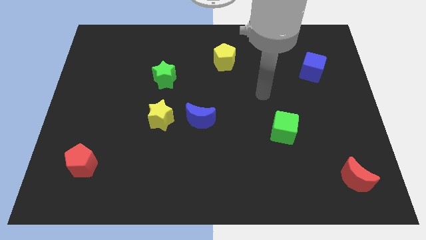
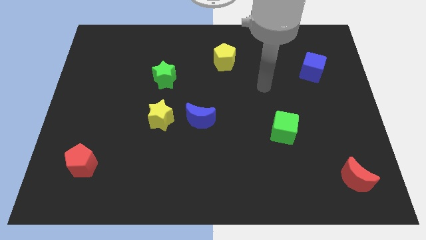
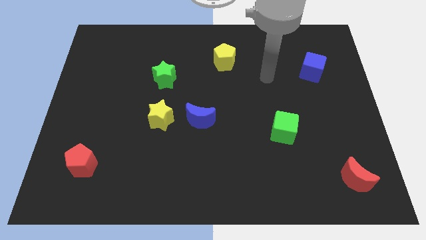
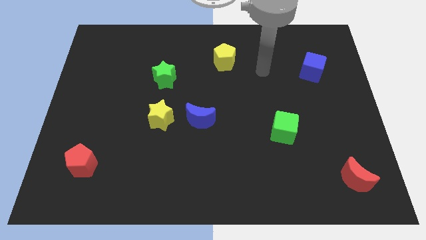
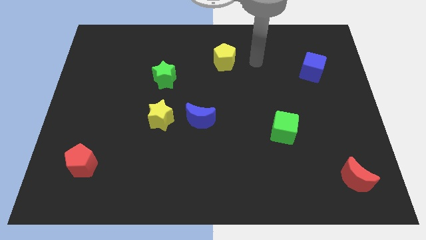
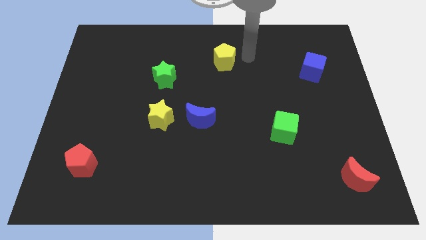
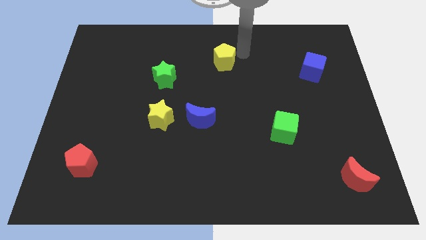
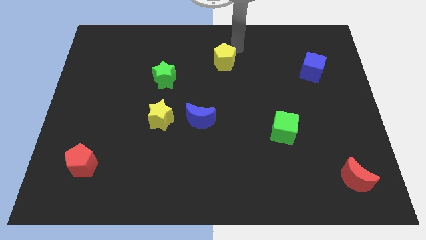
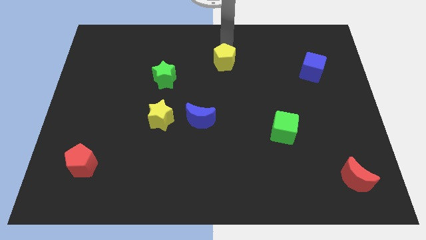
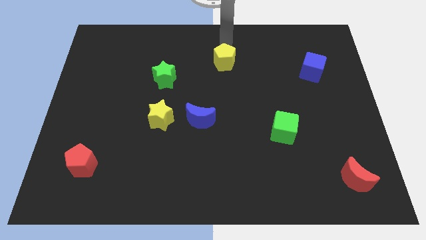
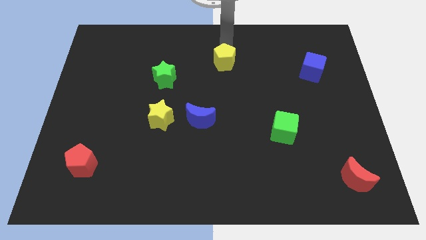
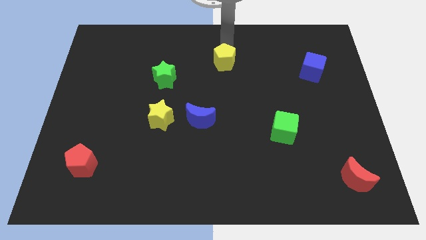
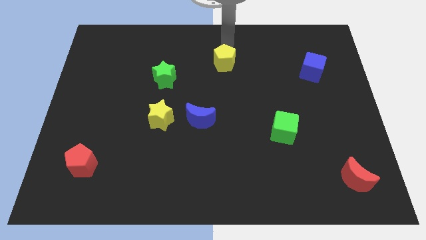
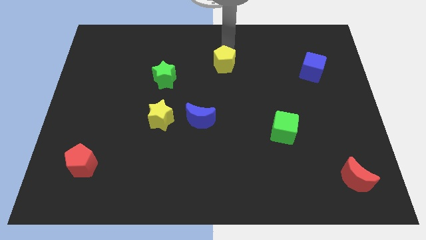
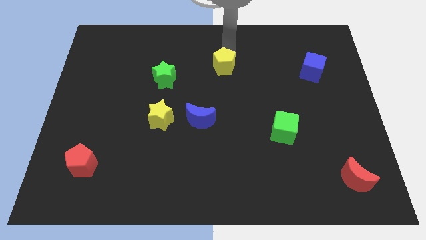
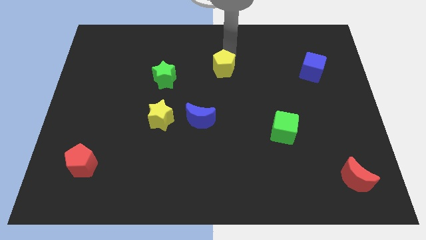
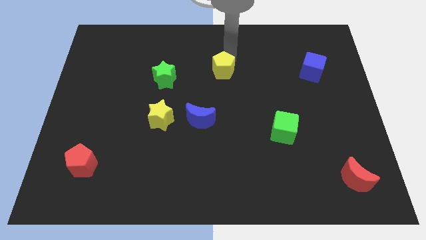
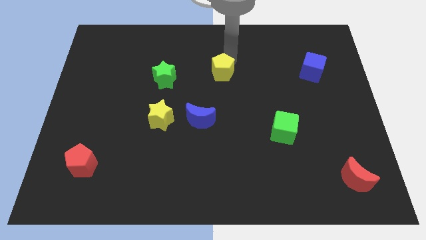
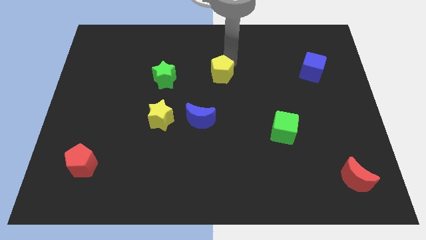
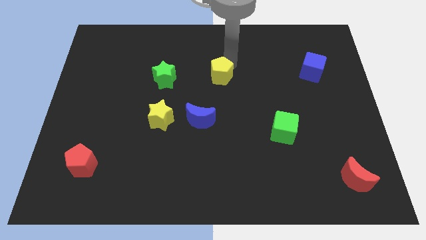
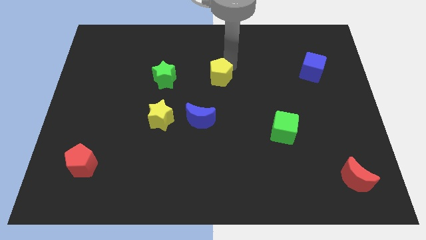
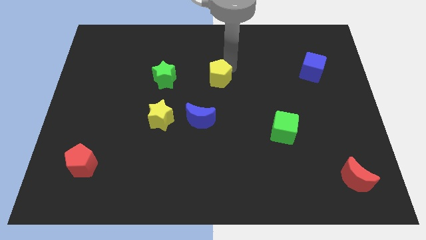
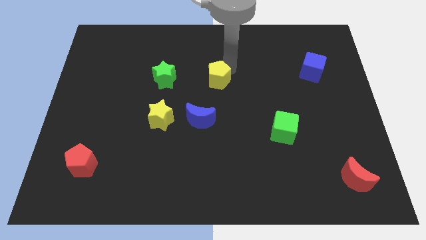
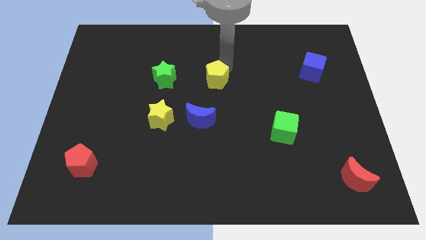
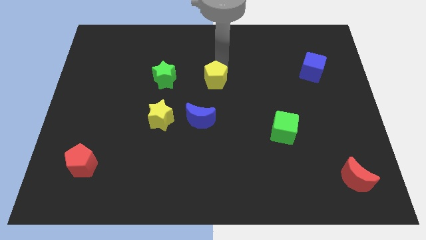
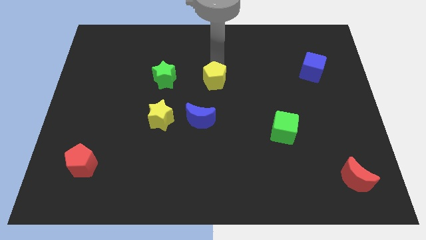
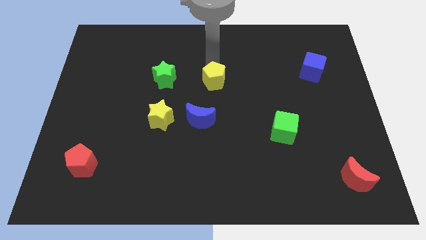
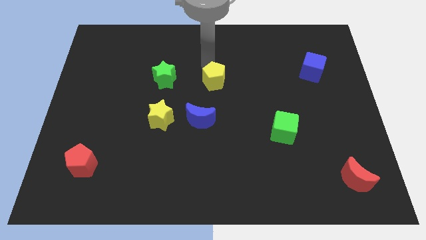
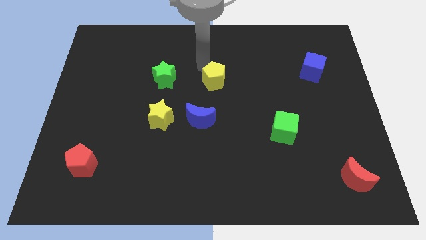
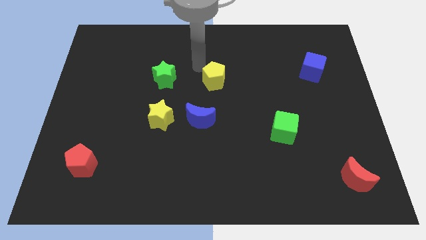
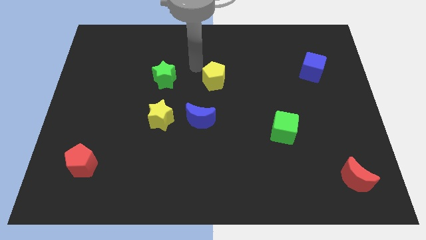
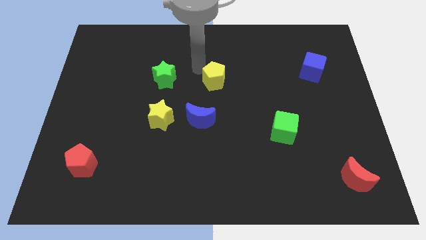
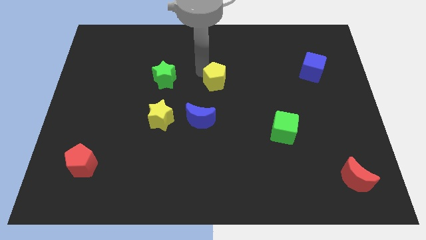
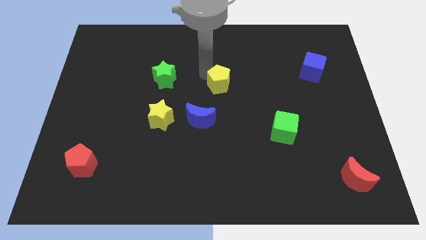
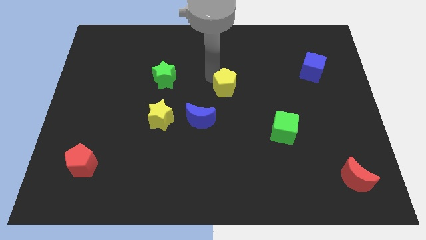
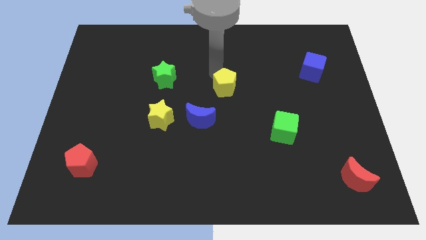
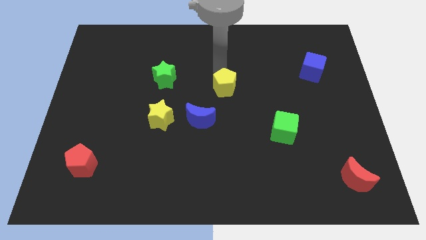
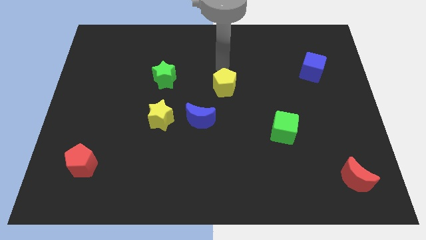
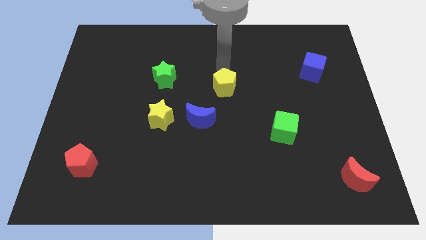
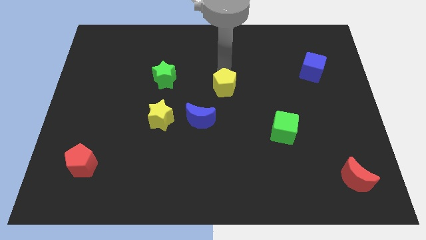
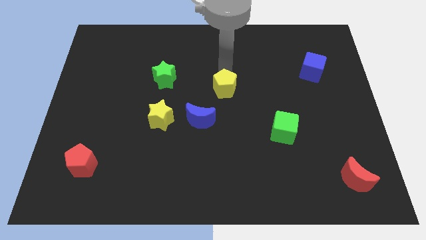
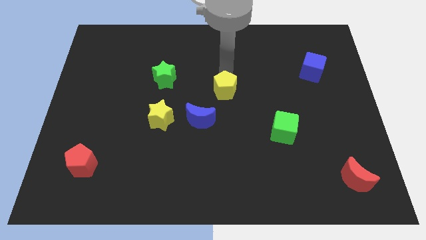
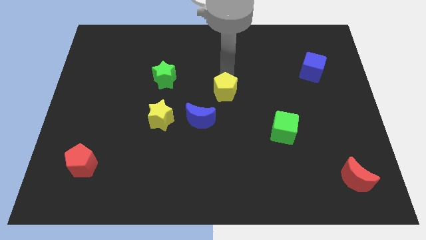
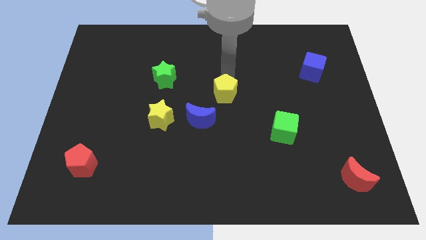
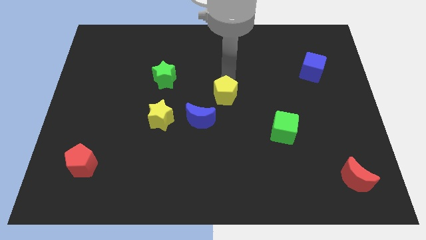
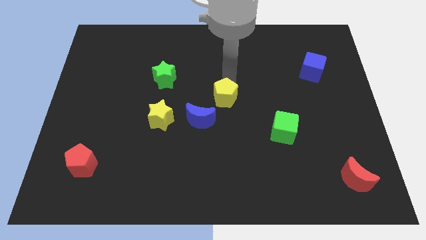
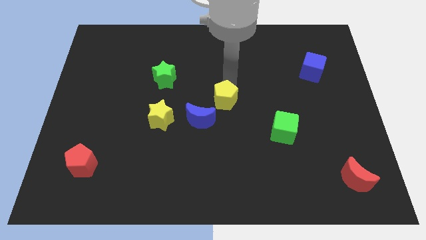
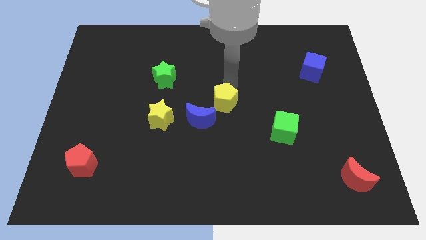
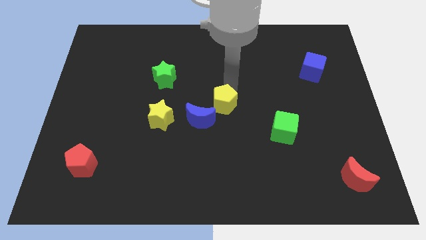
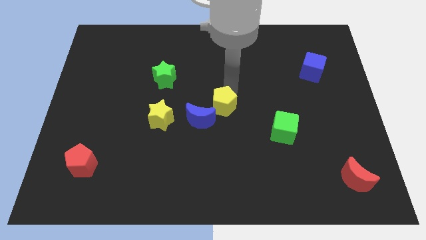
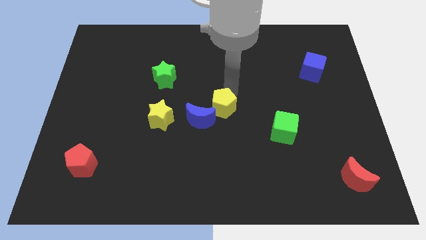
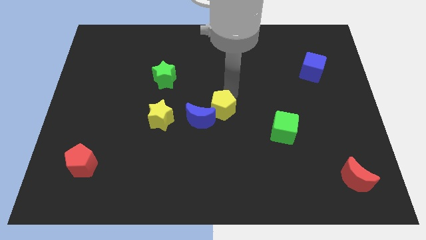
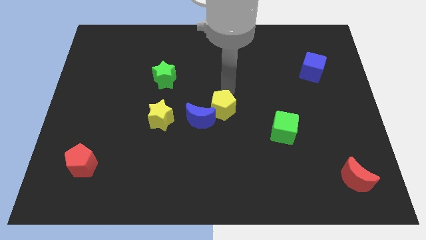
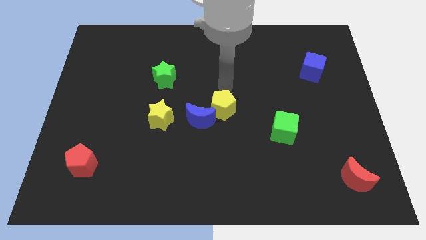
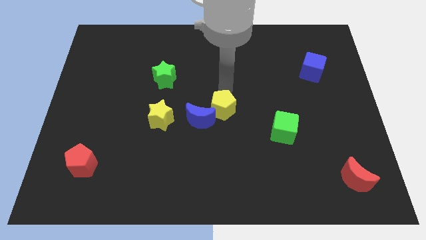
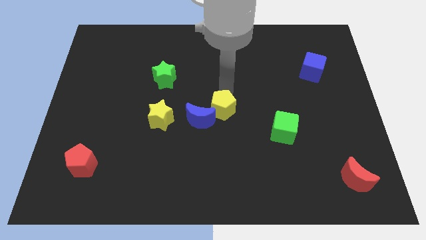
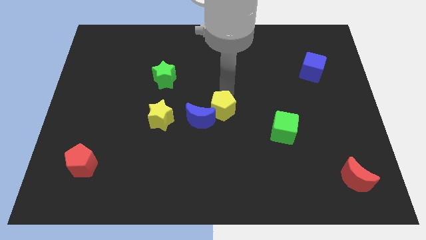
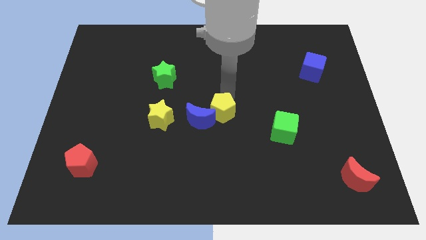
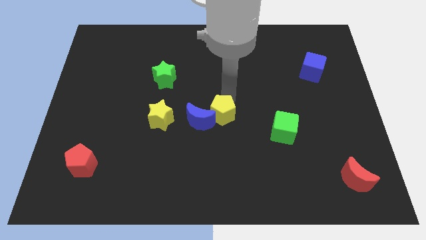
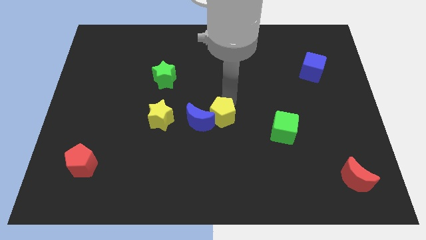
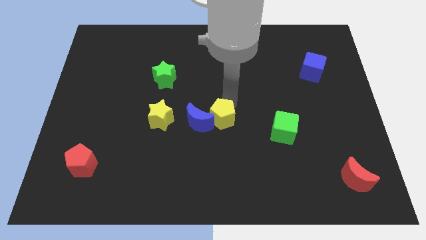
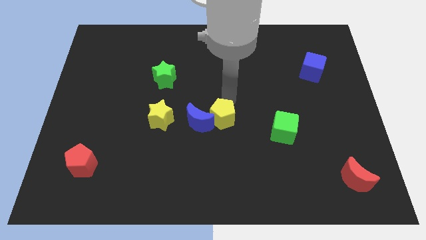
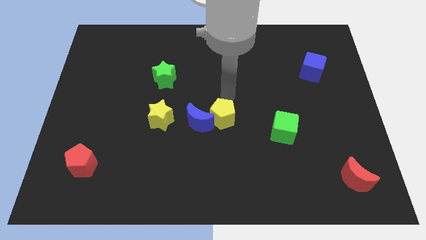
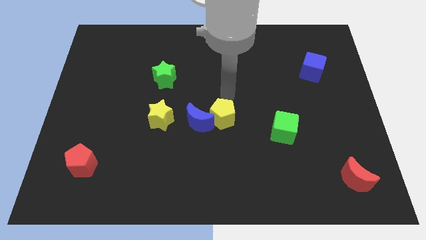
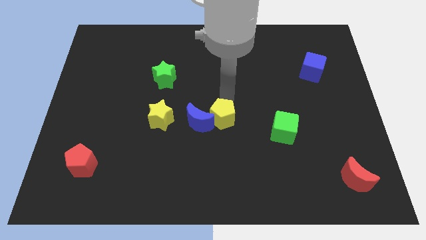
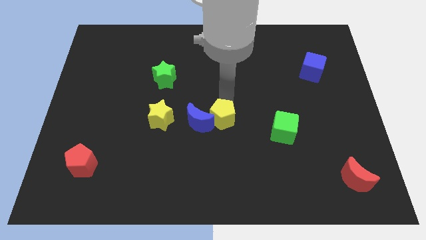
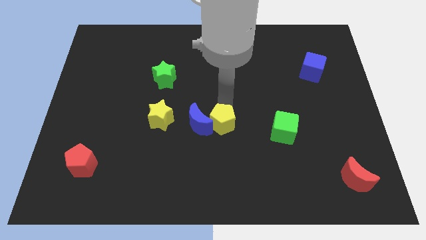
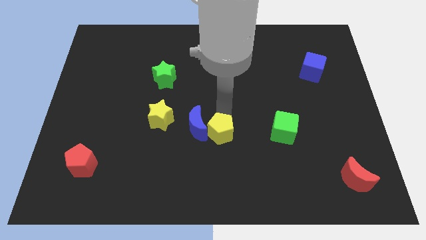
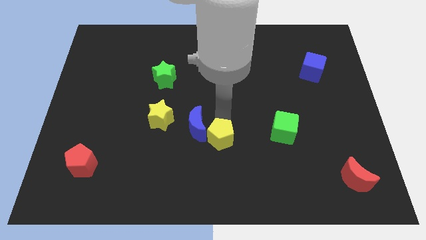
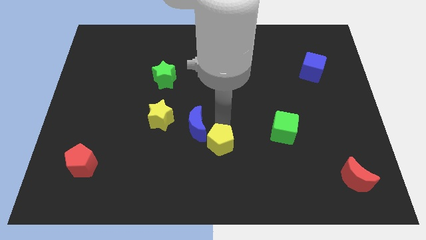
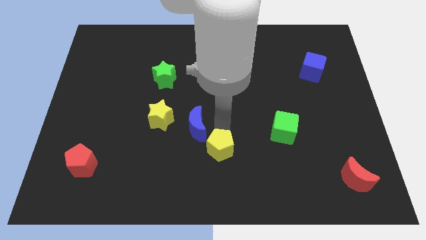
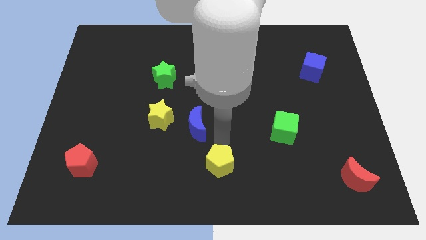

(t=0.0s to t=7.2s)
move the yellow pentagon to the bottom

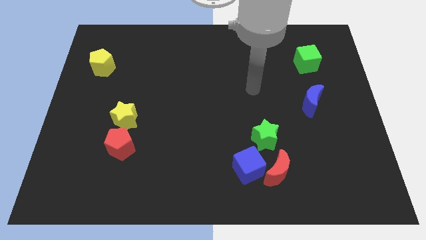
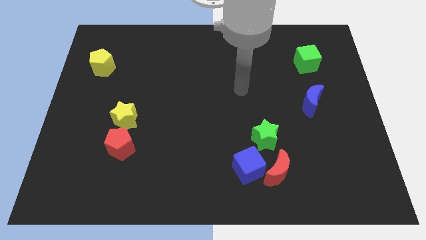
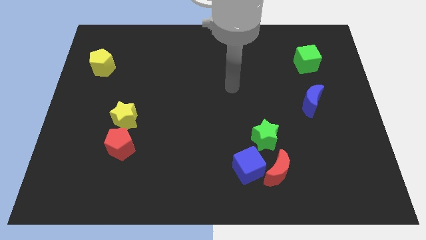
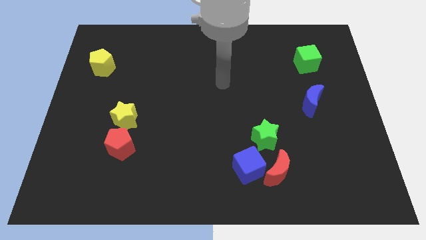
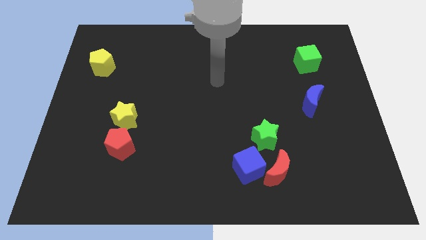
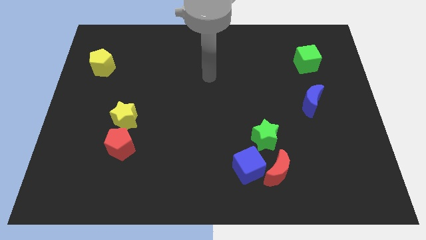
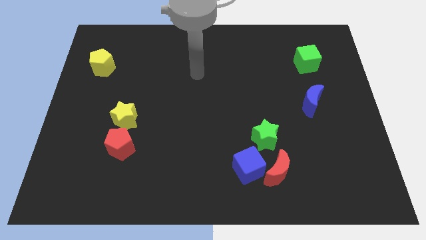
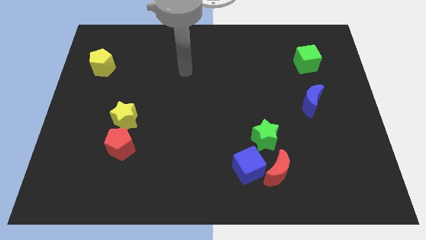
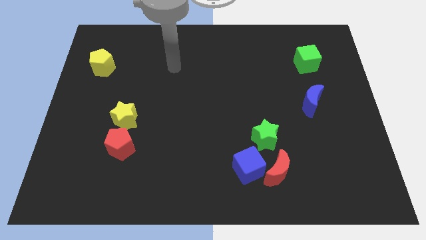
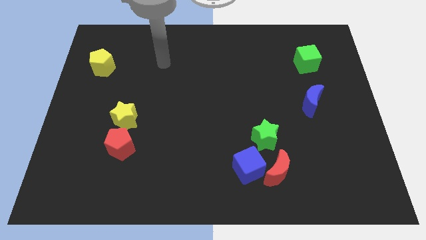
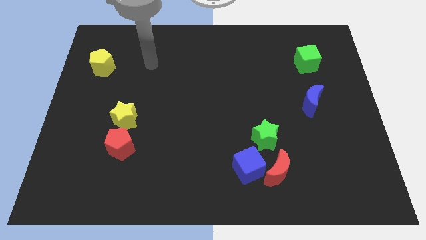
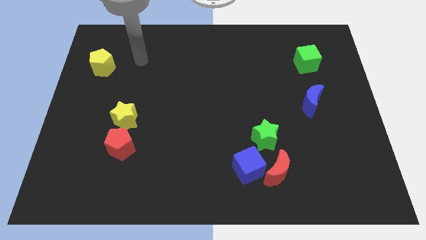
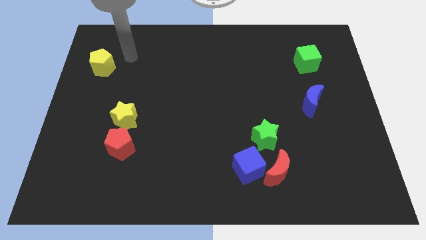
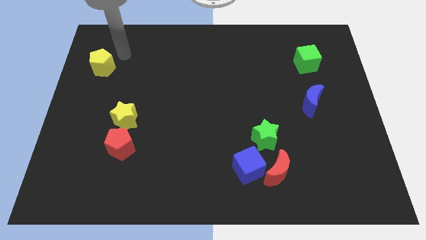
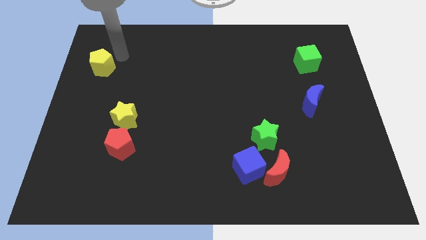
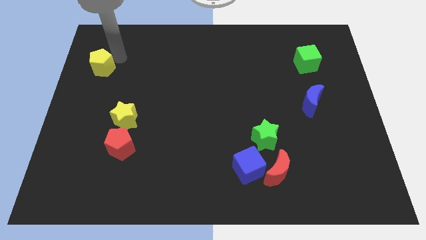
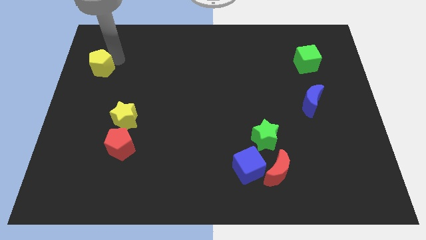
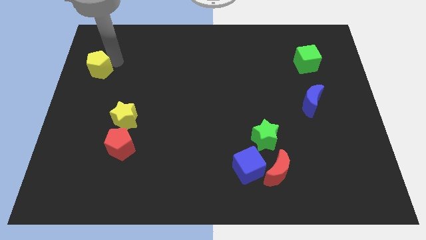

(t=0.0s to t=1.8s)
move the yellow pentagon to the left side of the board
